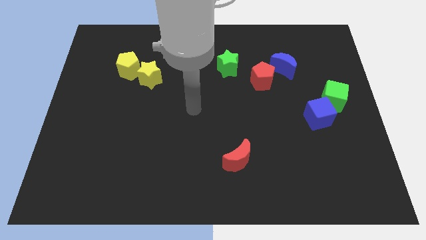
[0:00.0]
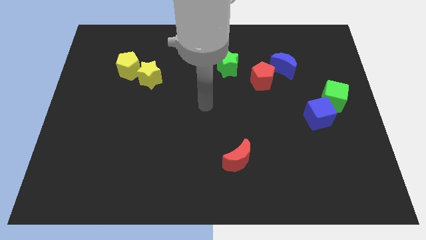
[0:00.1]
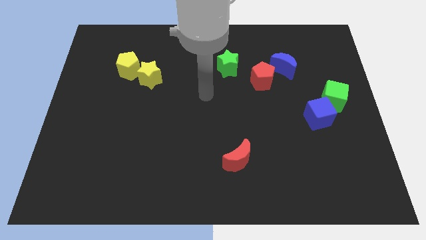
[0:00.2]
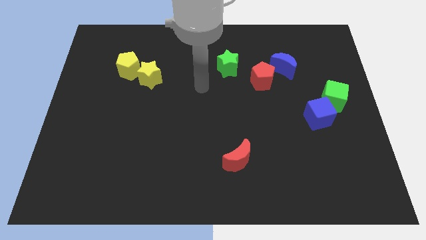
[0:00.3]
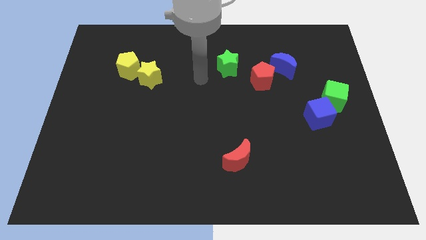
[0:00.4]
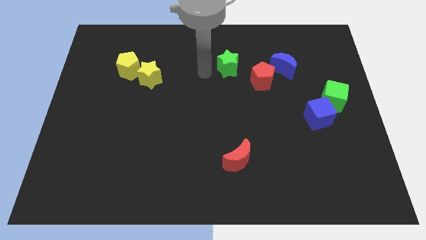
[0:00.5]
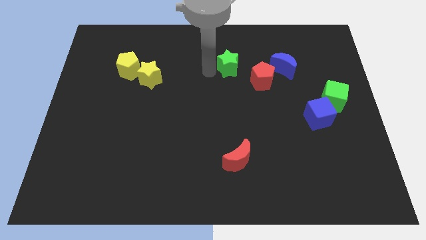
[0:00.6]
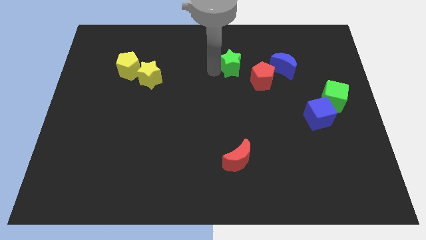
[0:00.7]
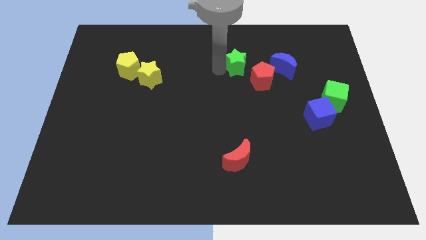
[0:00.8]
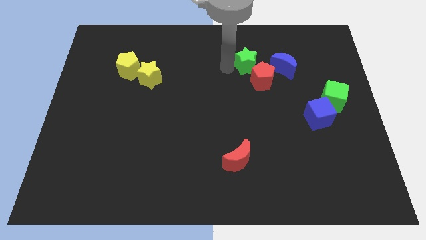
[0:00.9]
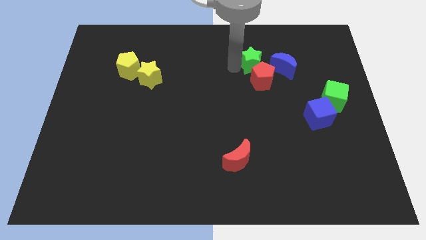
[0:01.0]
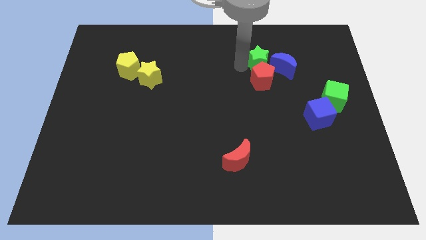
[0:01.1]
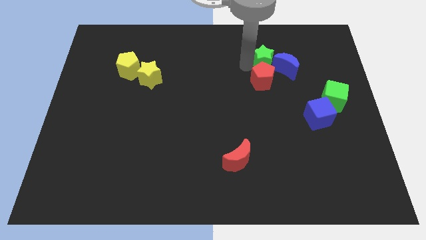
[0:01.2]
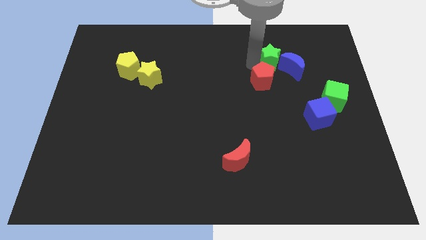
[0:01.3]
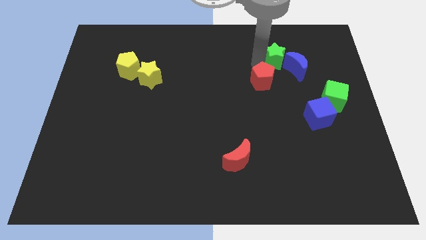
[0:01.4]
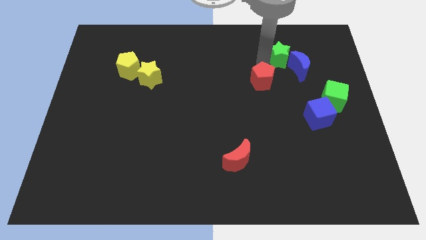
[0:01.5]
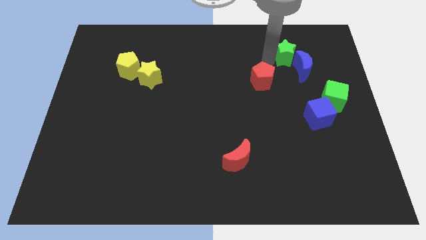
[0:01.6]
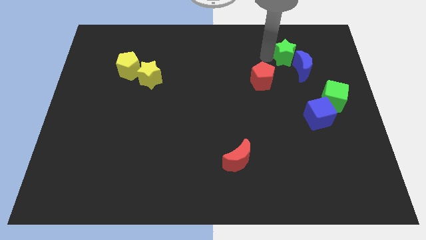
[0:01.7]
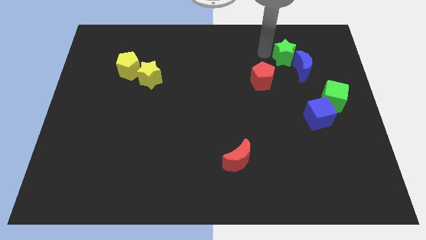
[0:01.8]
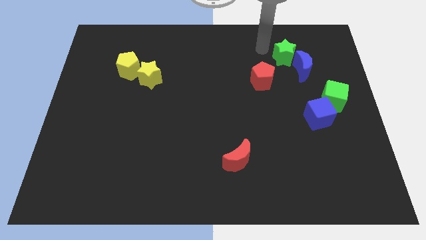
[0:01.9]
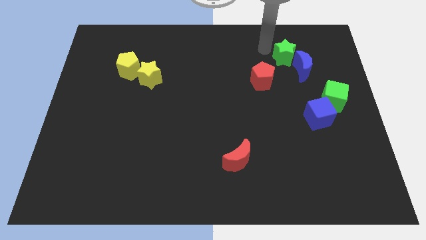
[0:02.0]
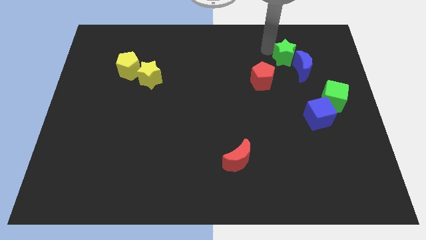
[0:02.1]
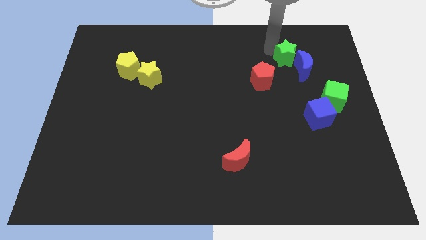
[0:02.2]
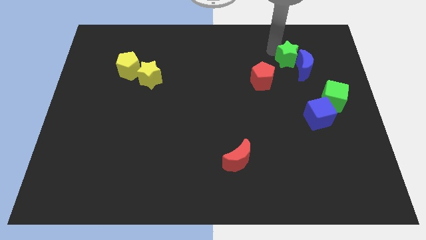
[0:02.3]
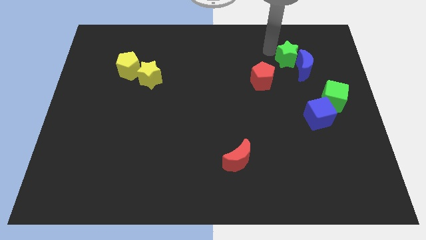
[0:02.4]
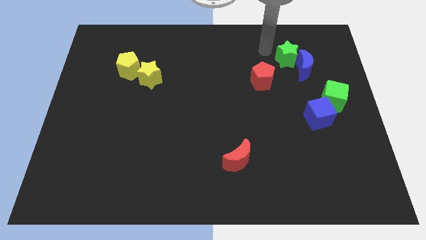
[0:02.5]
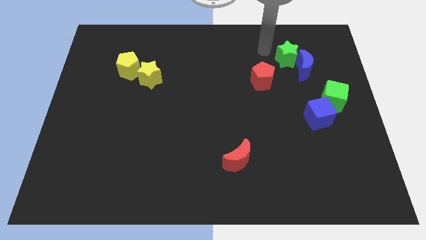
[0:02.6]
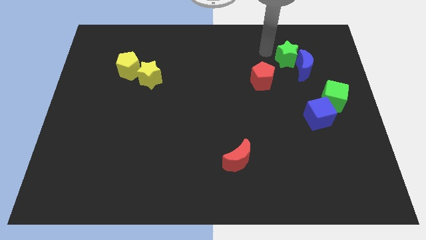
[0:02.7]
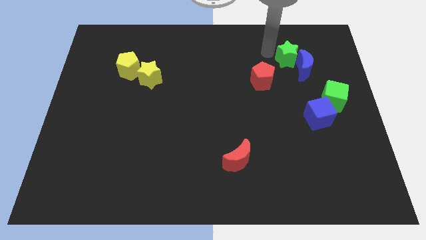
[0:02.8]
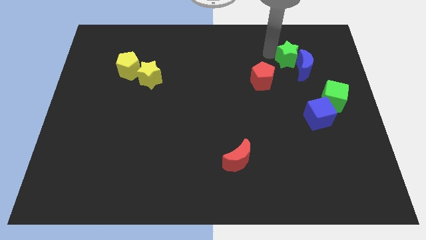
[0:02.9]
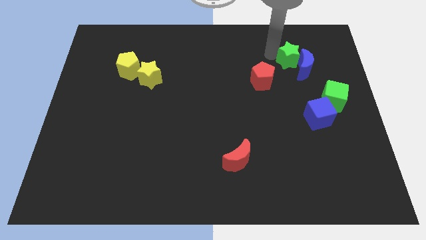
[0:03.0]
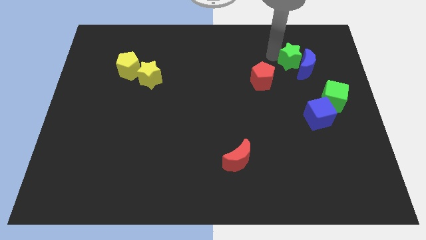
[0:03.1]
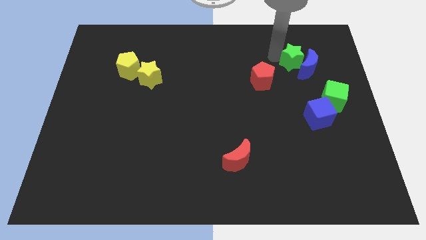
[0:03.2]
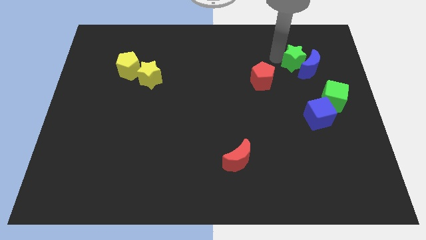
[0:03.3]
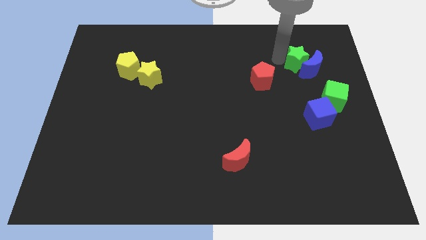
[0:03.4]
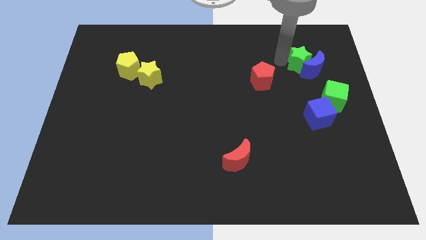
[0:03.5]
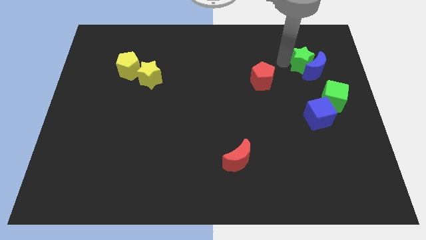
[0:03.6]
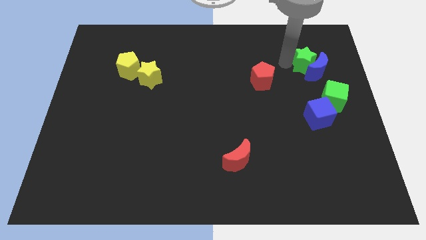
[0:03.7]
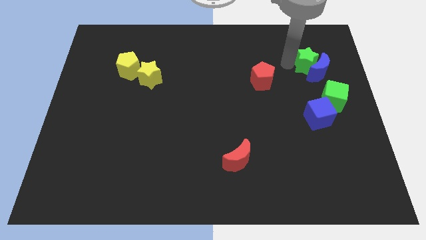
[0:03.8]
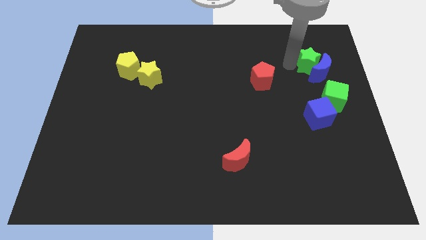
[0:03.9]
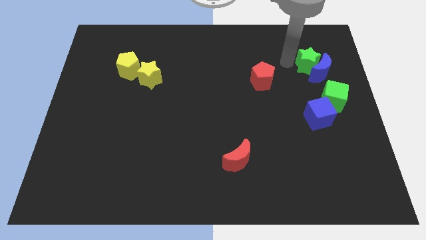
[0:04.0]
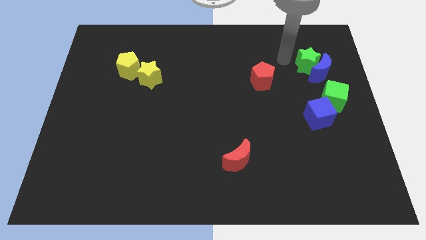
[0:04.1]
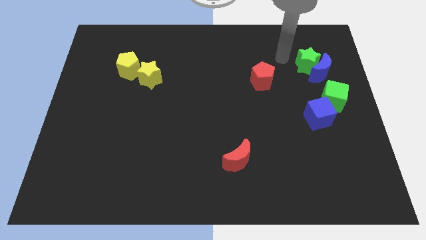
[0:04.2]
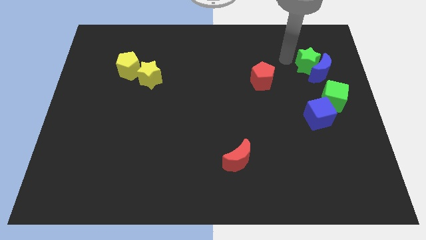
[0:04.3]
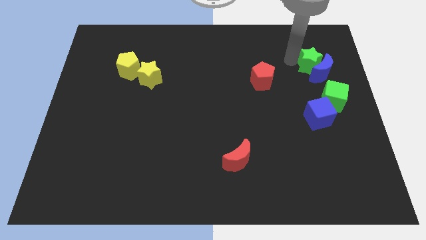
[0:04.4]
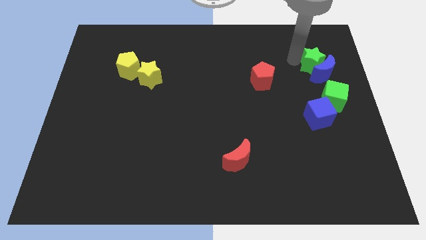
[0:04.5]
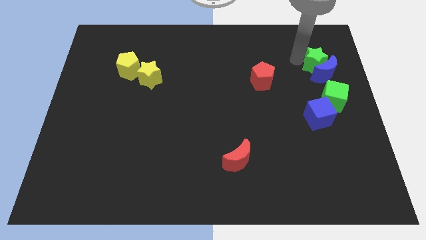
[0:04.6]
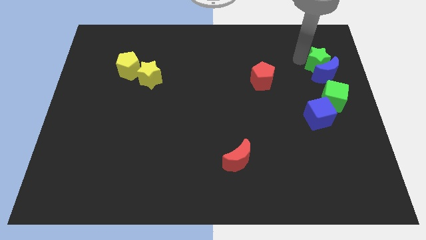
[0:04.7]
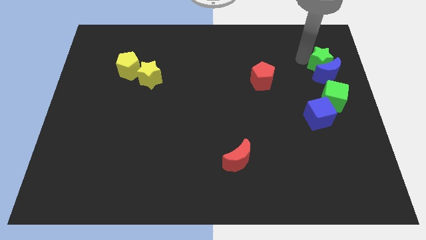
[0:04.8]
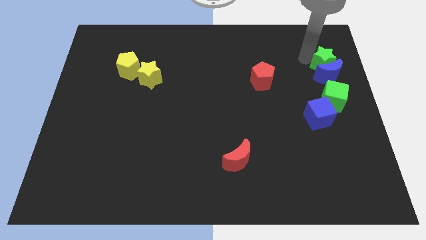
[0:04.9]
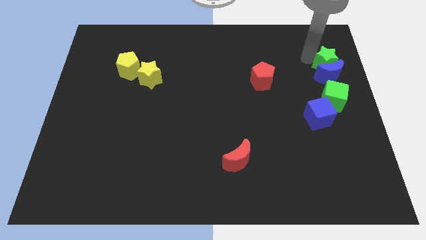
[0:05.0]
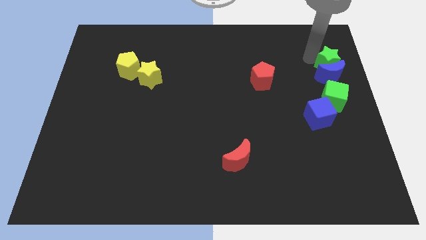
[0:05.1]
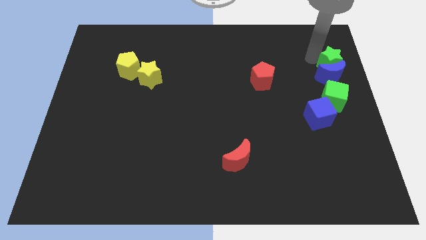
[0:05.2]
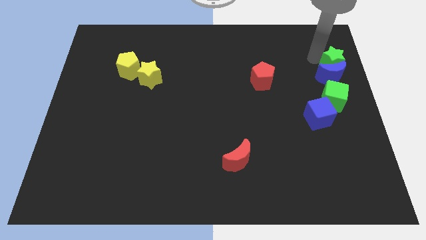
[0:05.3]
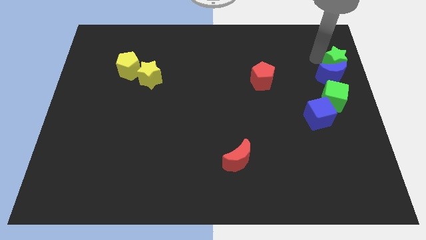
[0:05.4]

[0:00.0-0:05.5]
push the green star to the right side of the board

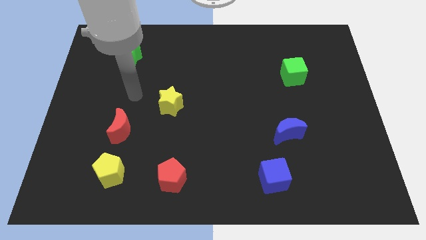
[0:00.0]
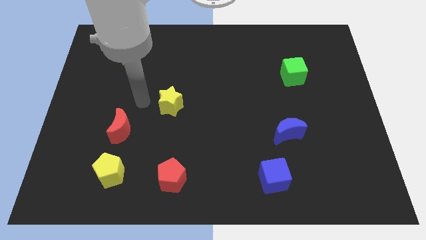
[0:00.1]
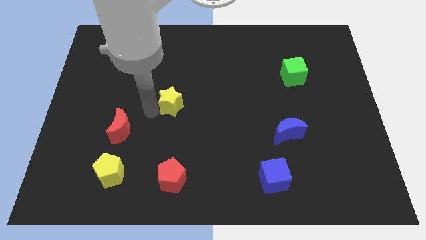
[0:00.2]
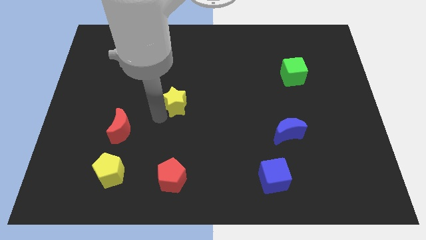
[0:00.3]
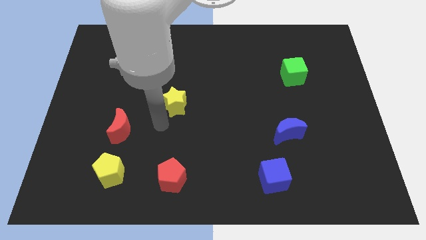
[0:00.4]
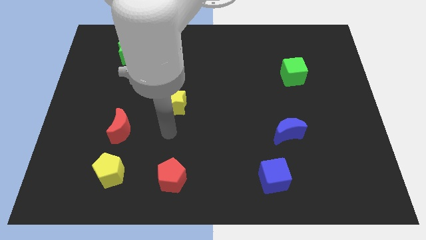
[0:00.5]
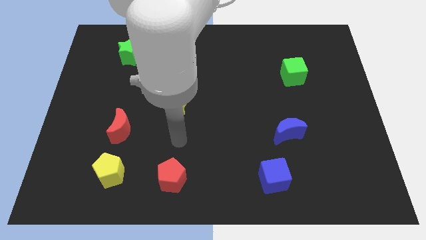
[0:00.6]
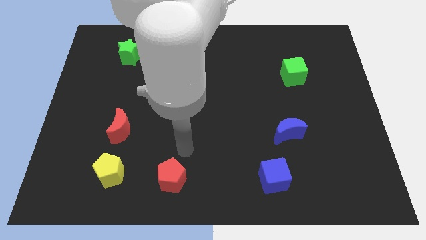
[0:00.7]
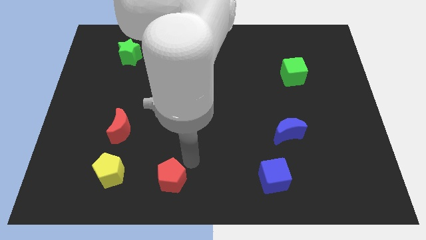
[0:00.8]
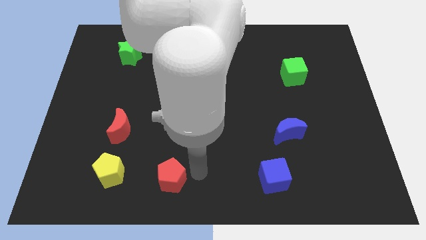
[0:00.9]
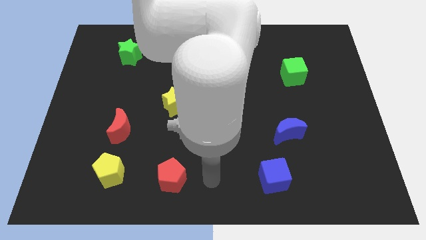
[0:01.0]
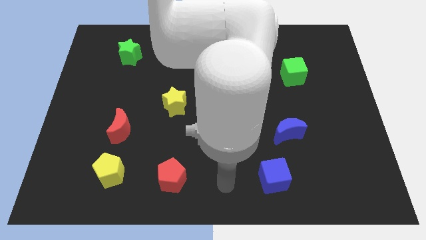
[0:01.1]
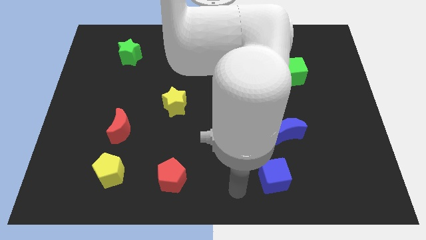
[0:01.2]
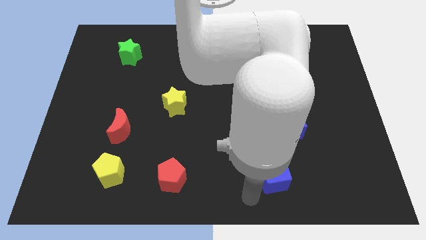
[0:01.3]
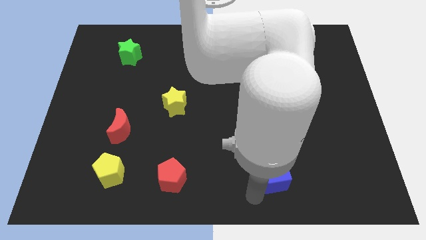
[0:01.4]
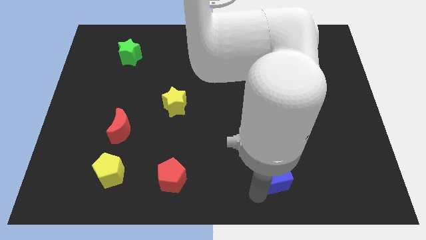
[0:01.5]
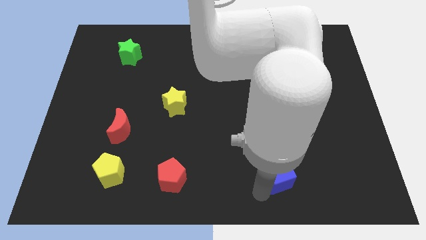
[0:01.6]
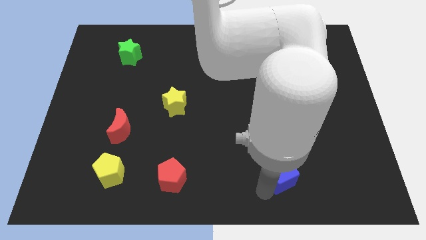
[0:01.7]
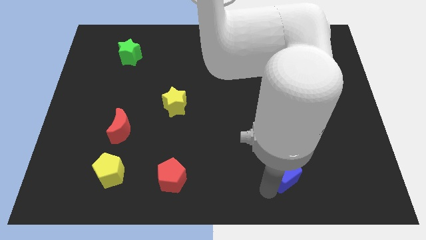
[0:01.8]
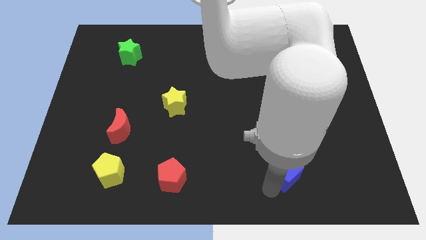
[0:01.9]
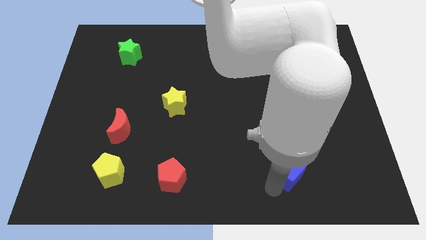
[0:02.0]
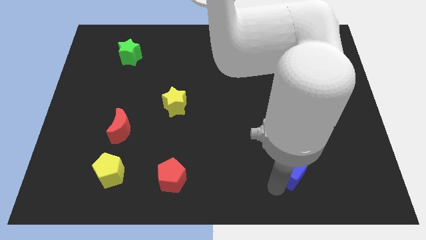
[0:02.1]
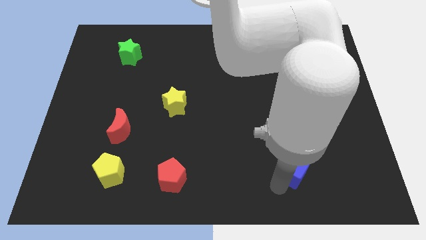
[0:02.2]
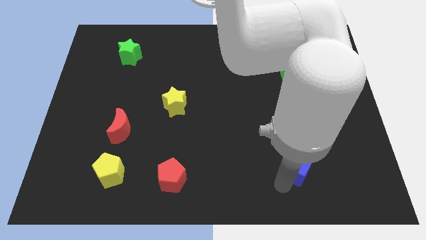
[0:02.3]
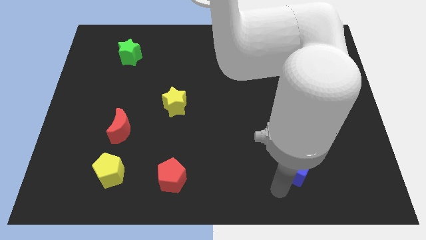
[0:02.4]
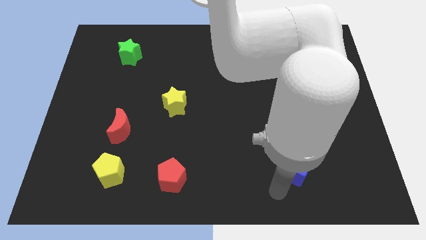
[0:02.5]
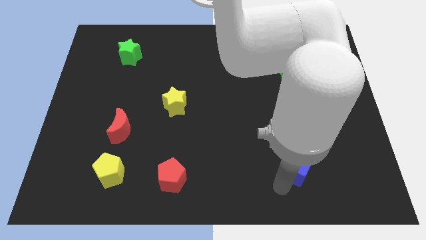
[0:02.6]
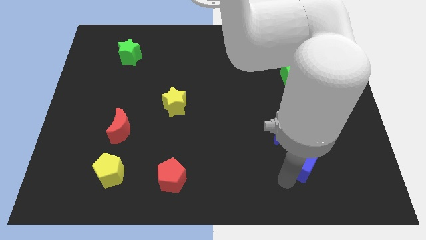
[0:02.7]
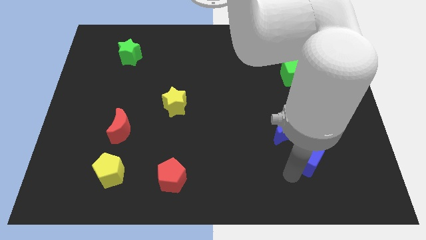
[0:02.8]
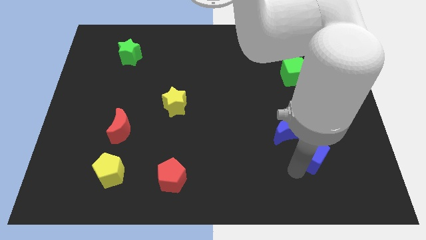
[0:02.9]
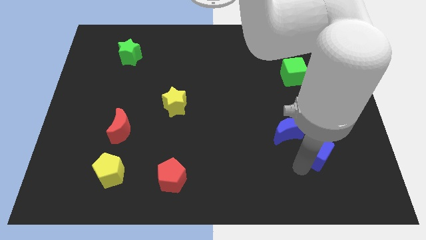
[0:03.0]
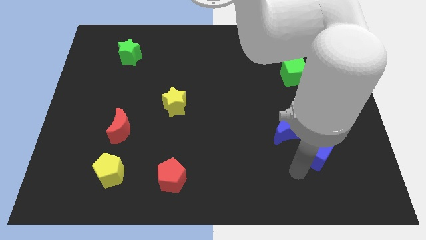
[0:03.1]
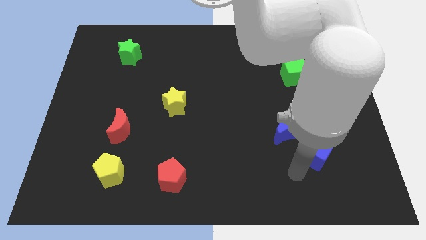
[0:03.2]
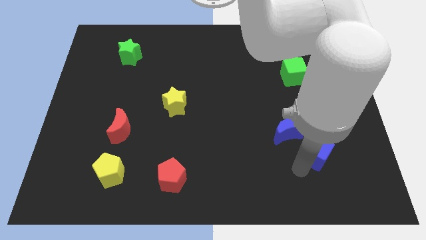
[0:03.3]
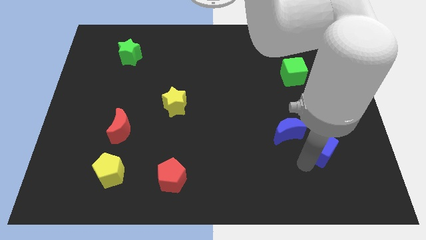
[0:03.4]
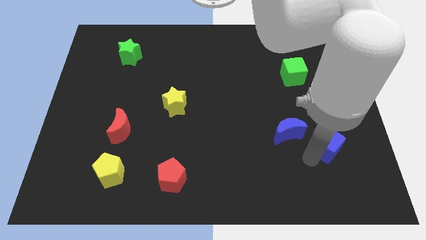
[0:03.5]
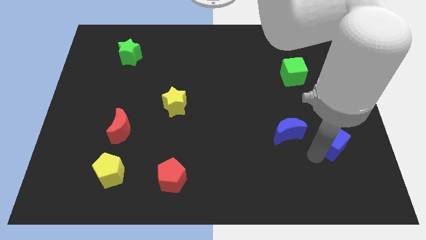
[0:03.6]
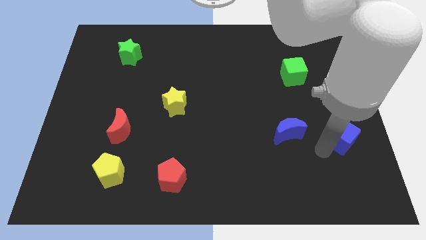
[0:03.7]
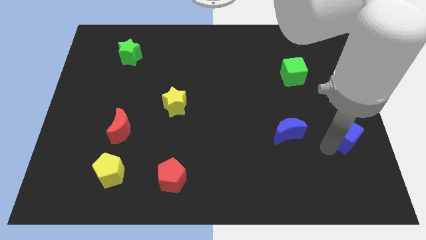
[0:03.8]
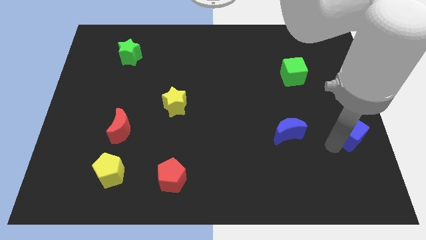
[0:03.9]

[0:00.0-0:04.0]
move the blue cube to the right side of the board
